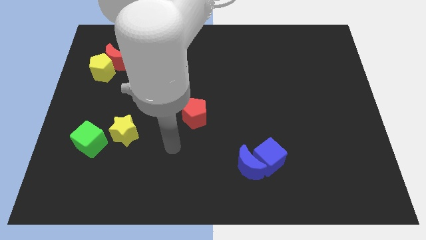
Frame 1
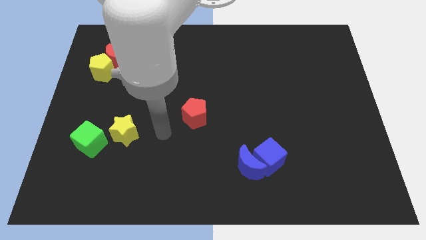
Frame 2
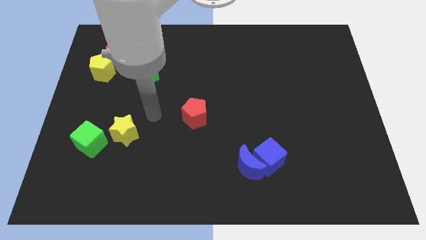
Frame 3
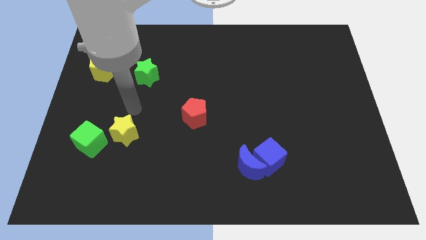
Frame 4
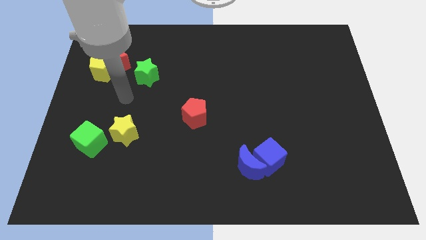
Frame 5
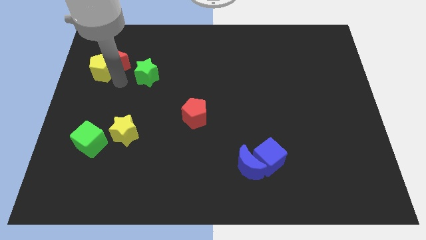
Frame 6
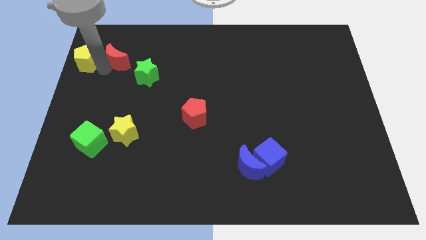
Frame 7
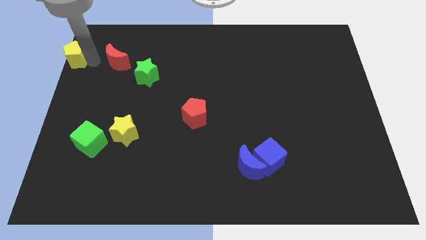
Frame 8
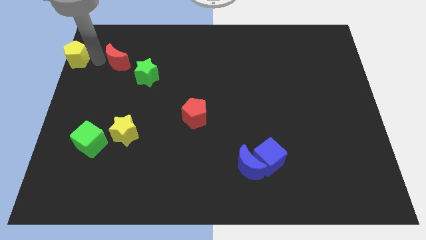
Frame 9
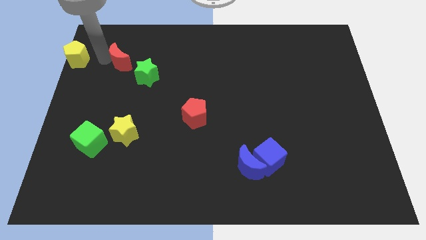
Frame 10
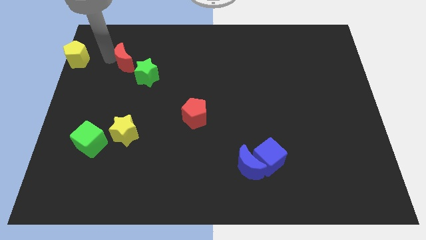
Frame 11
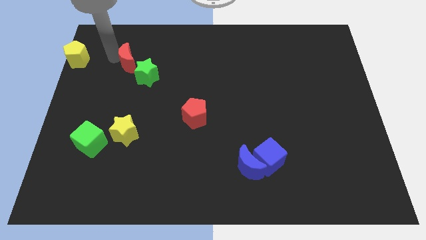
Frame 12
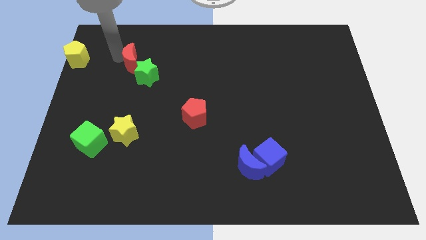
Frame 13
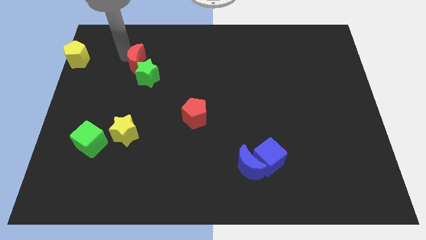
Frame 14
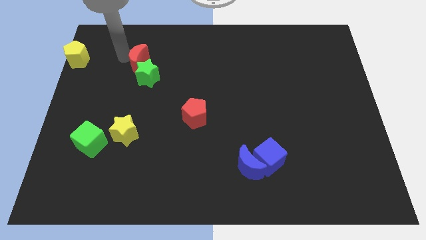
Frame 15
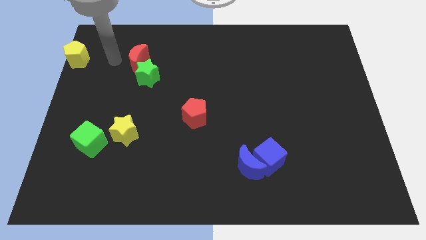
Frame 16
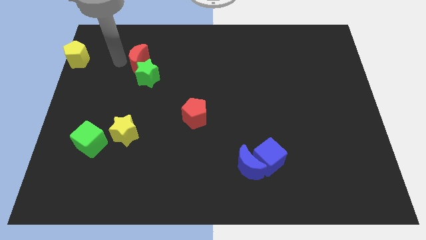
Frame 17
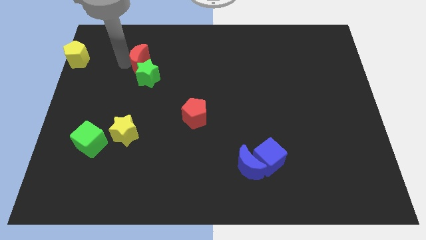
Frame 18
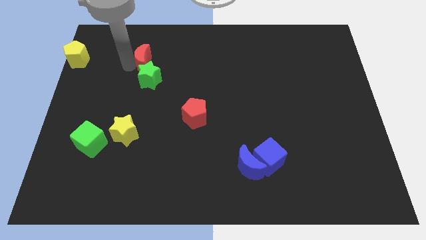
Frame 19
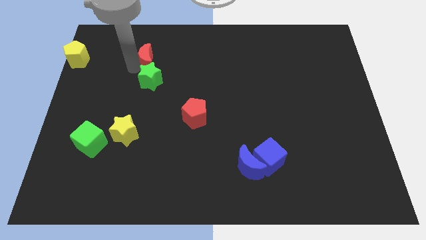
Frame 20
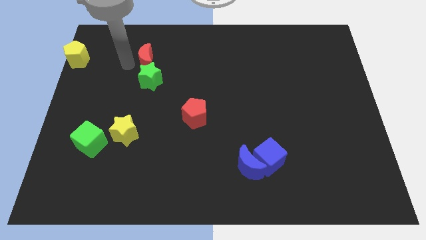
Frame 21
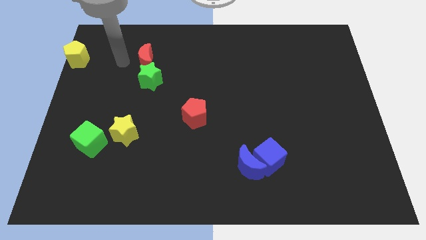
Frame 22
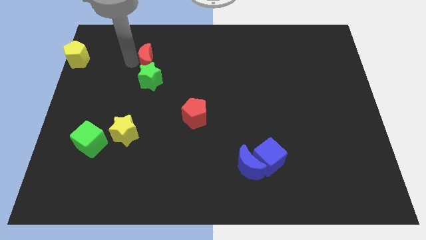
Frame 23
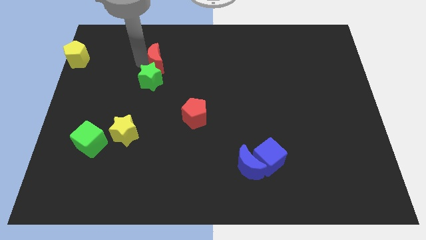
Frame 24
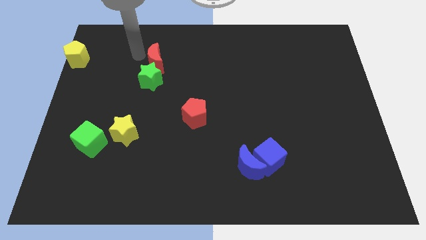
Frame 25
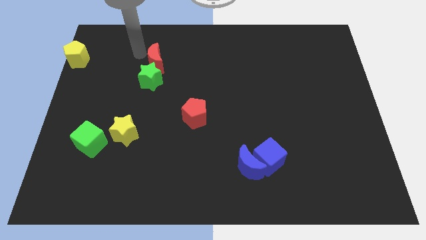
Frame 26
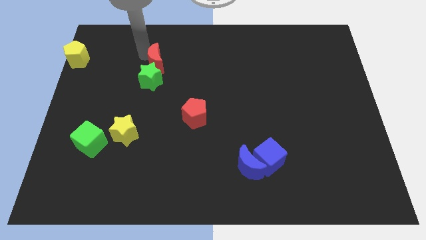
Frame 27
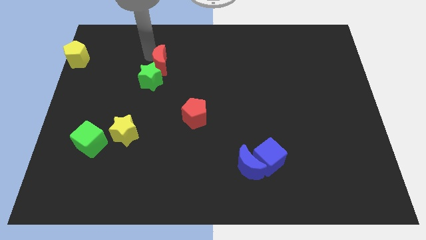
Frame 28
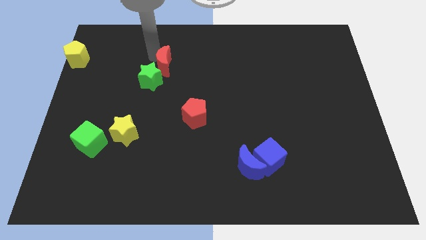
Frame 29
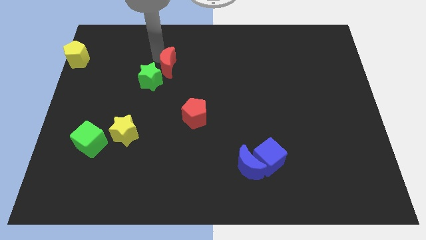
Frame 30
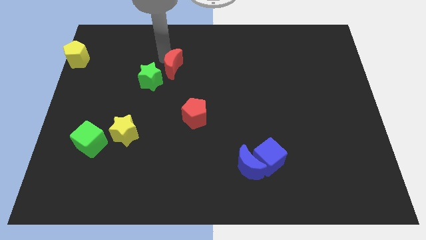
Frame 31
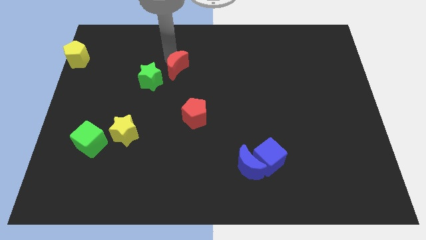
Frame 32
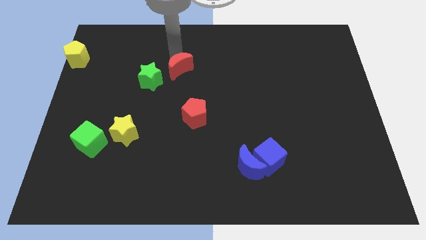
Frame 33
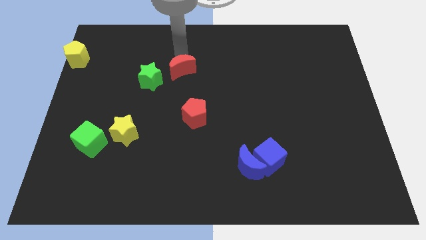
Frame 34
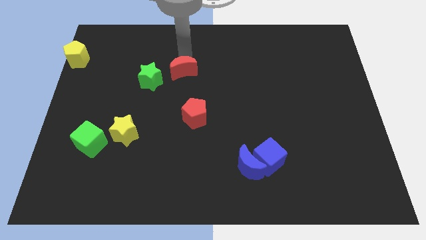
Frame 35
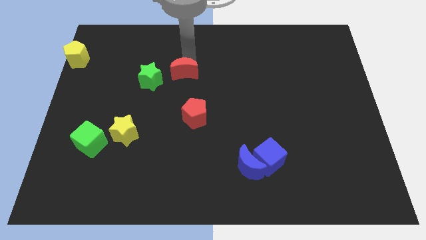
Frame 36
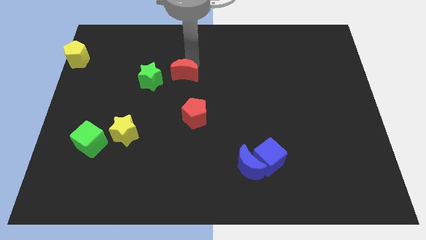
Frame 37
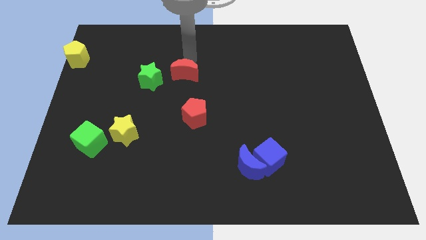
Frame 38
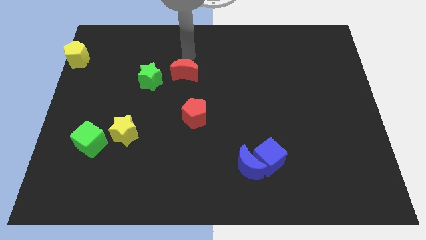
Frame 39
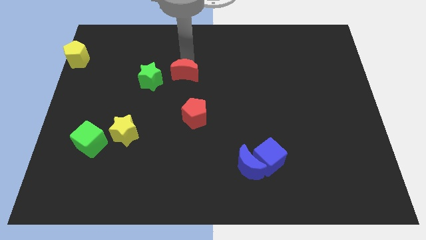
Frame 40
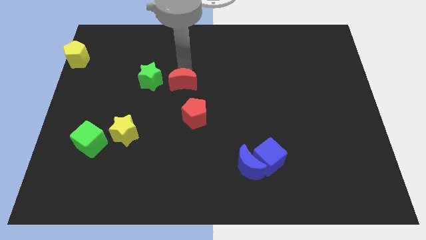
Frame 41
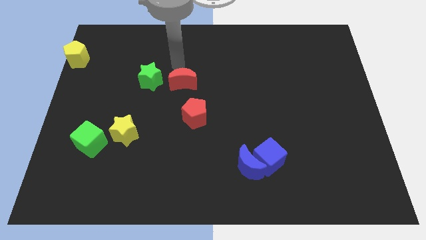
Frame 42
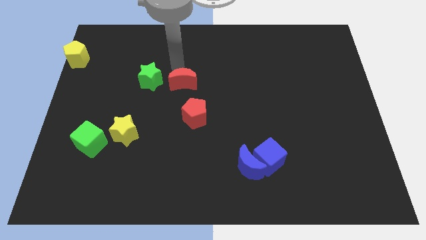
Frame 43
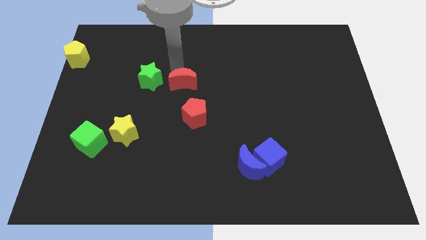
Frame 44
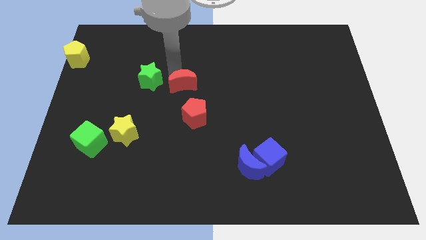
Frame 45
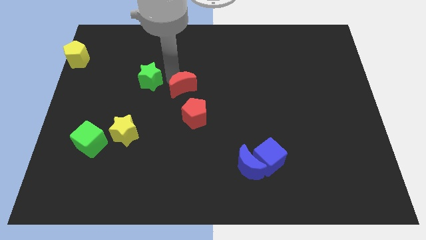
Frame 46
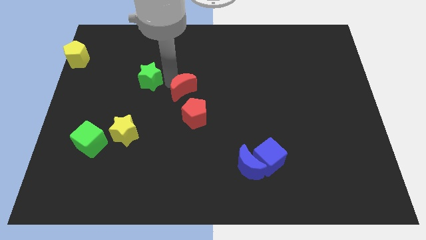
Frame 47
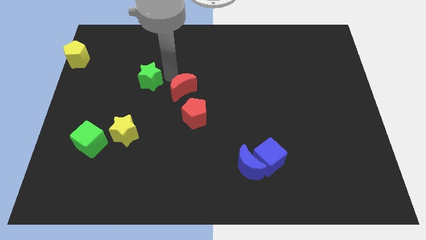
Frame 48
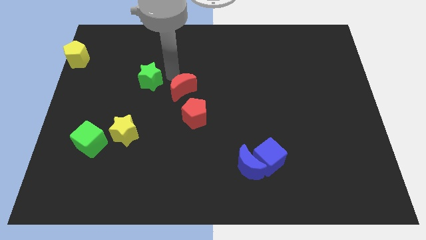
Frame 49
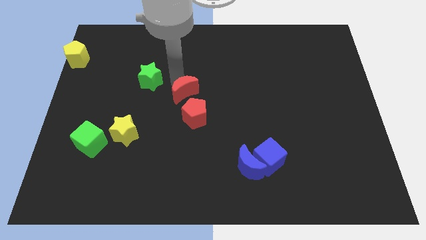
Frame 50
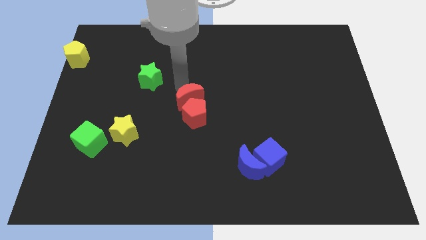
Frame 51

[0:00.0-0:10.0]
put the red moon towards the red pentagon

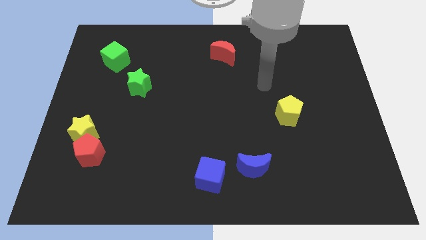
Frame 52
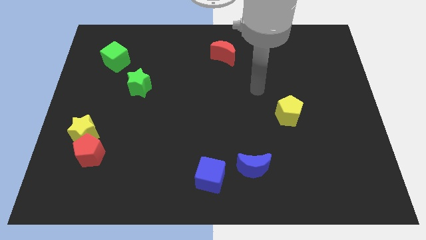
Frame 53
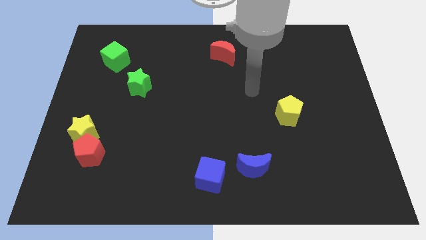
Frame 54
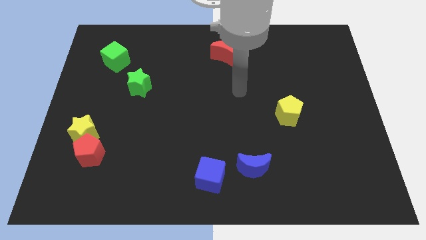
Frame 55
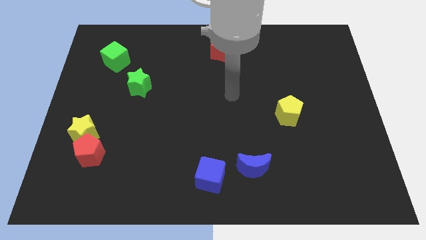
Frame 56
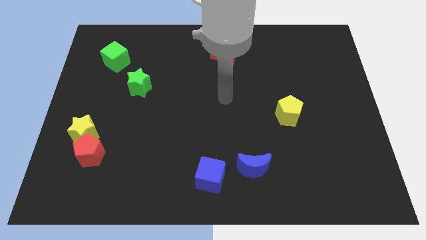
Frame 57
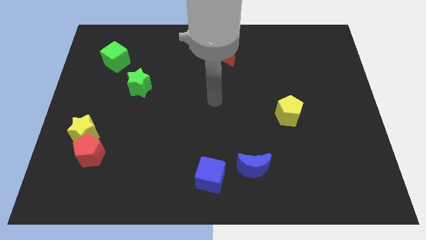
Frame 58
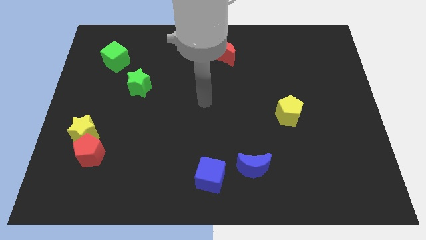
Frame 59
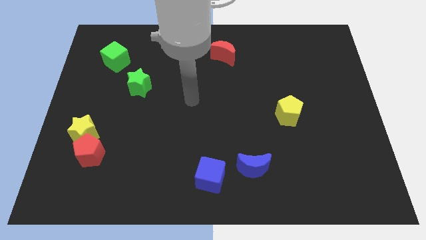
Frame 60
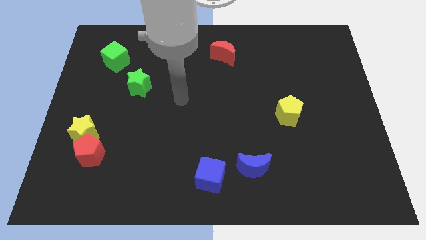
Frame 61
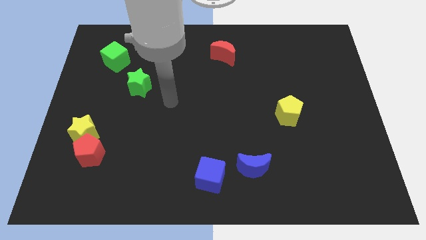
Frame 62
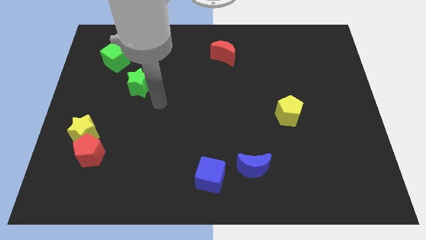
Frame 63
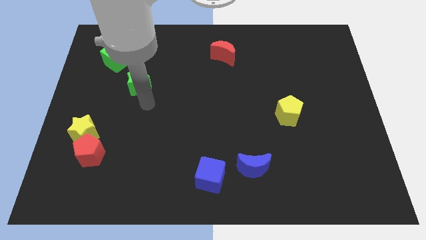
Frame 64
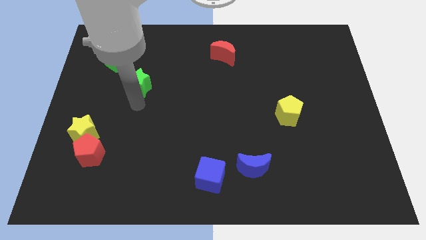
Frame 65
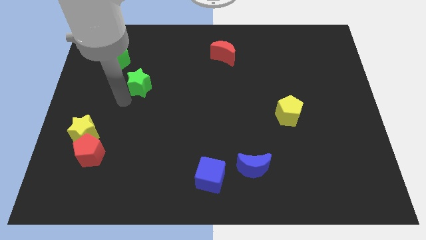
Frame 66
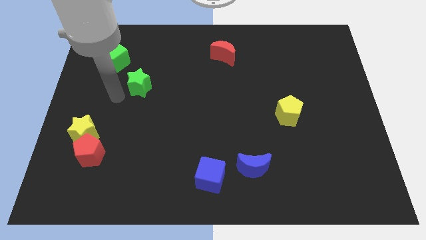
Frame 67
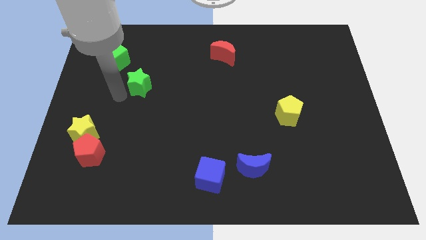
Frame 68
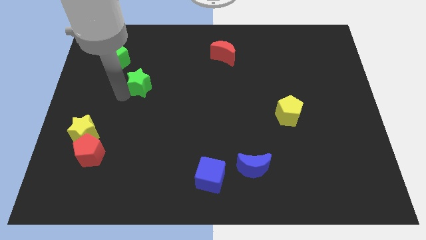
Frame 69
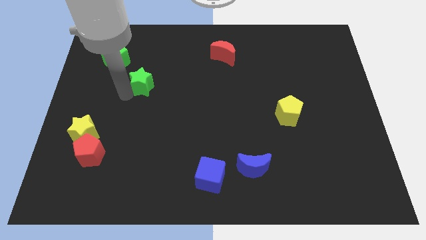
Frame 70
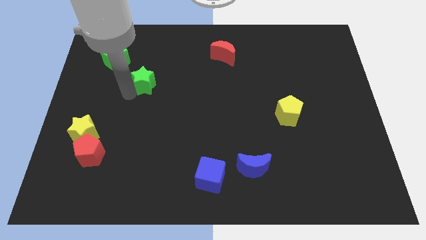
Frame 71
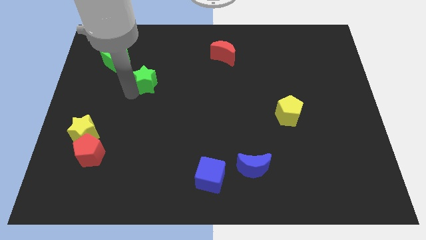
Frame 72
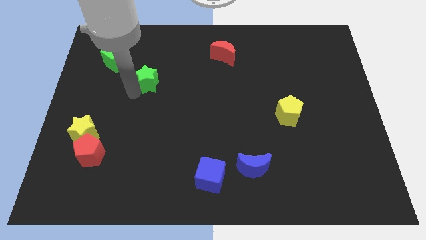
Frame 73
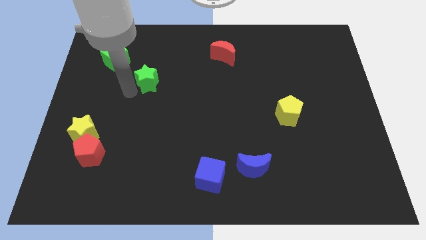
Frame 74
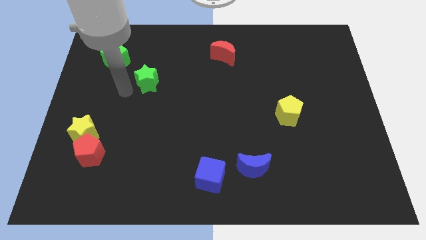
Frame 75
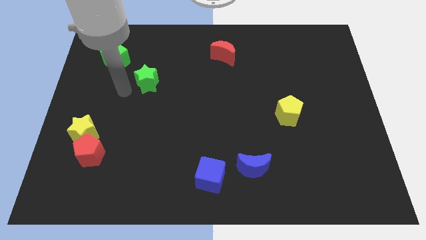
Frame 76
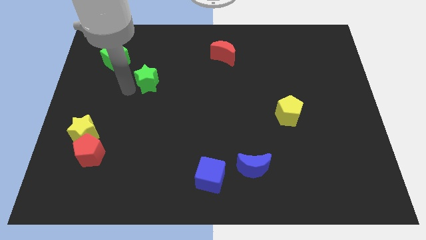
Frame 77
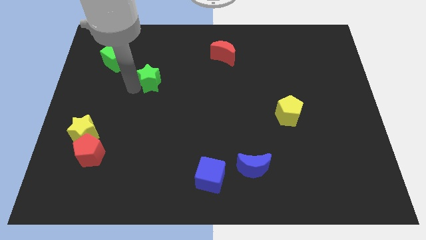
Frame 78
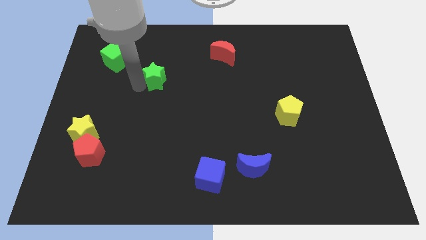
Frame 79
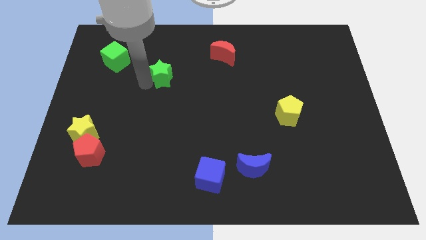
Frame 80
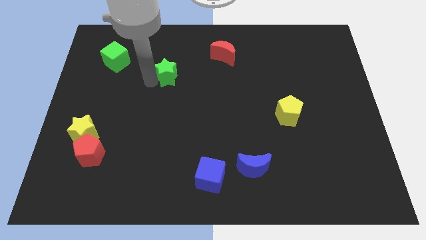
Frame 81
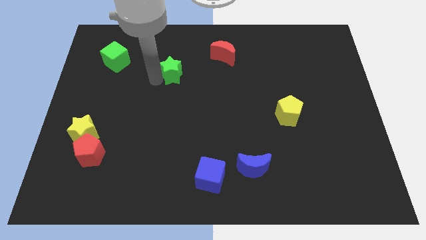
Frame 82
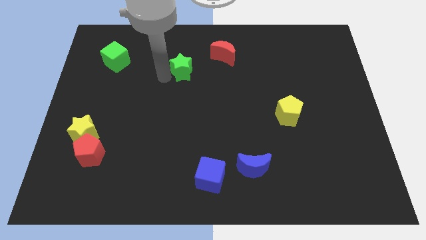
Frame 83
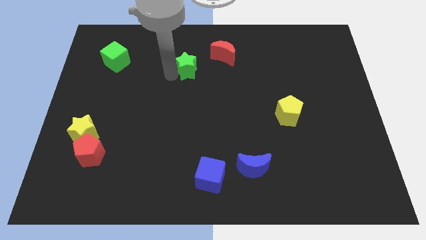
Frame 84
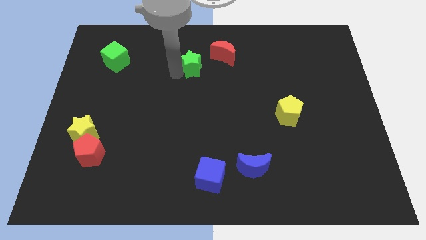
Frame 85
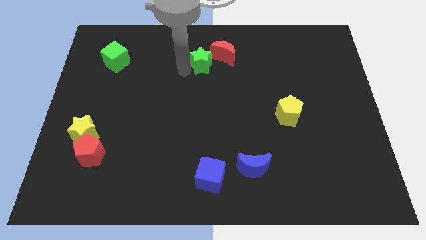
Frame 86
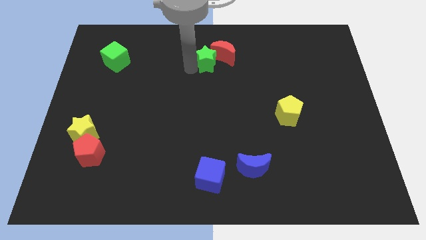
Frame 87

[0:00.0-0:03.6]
push the green star close to the red moon
